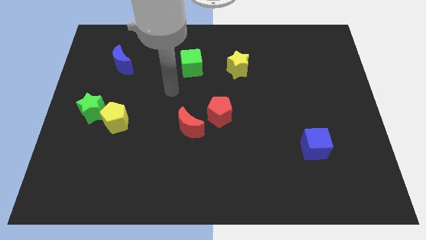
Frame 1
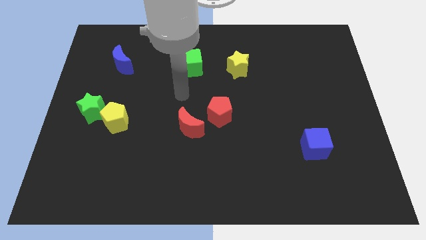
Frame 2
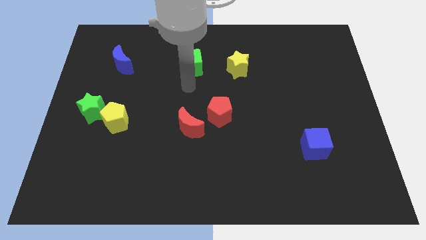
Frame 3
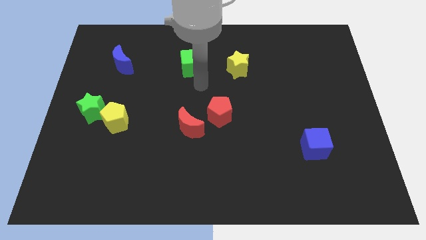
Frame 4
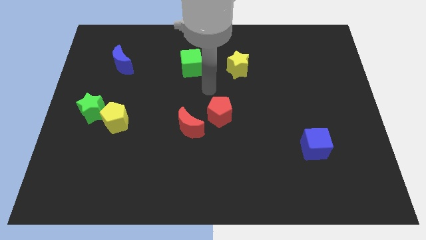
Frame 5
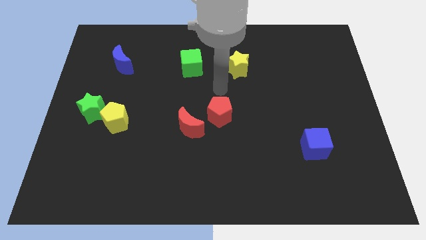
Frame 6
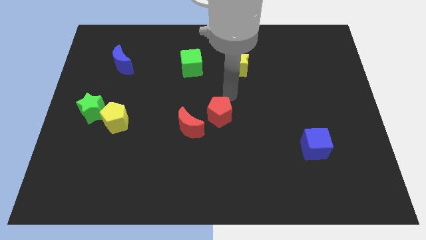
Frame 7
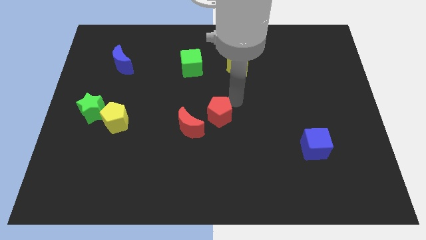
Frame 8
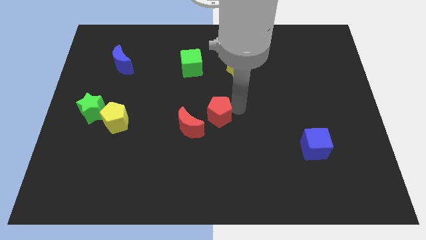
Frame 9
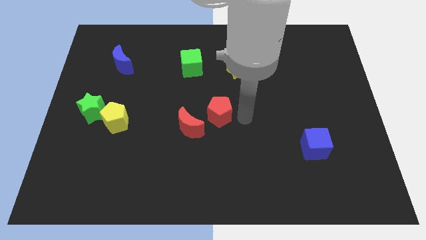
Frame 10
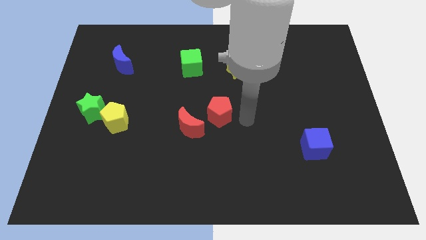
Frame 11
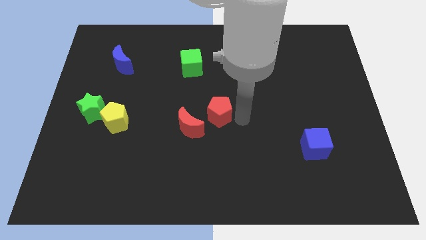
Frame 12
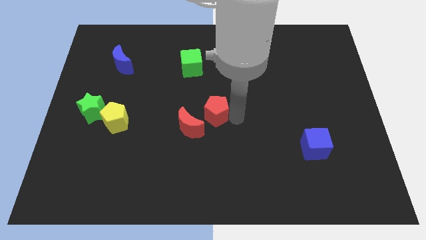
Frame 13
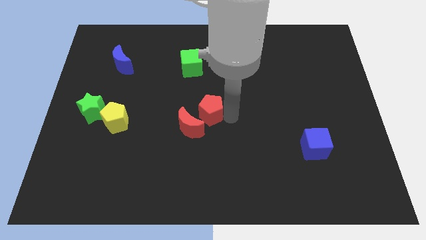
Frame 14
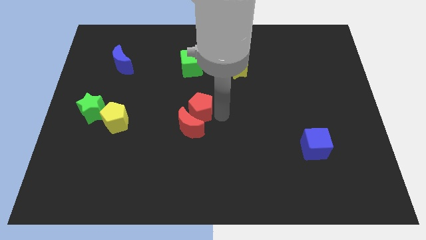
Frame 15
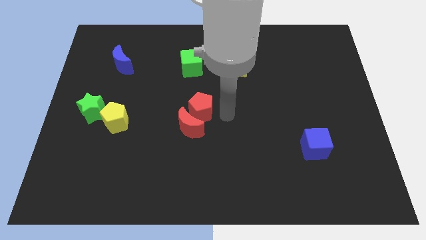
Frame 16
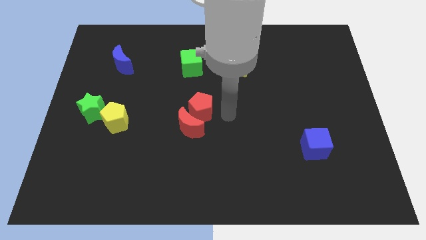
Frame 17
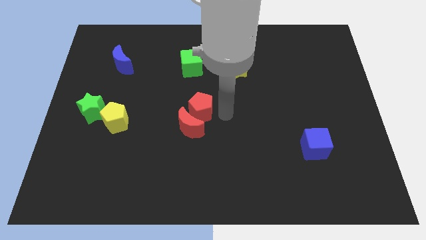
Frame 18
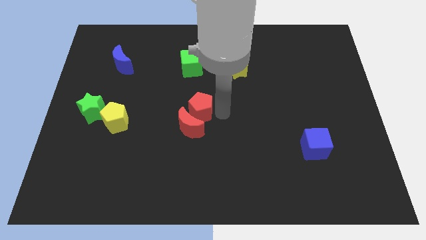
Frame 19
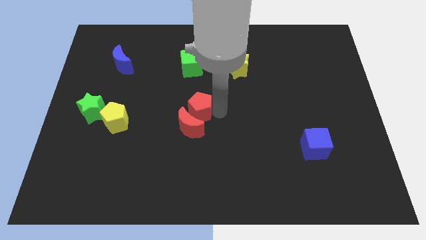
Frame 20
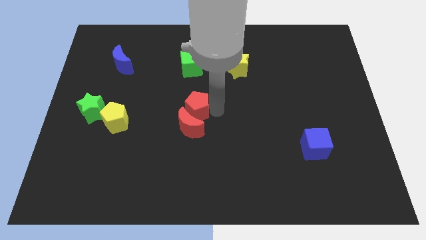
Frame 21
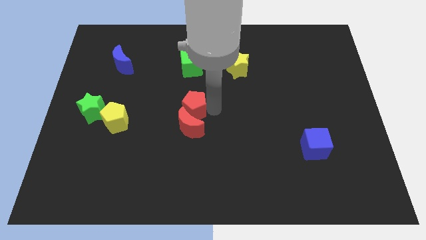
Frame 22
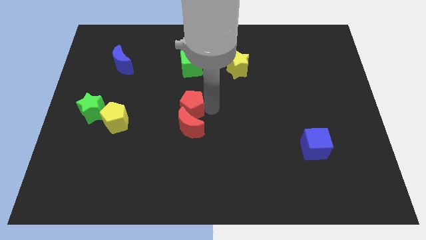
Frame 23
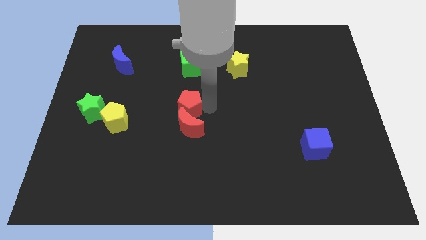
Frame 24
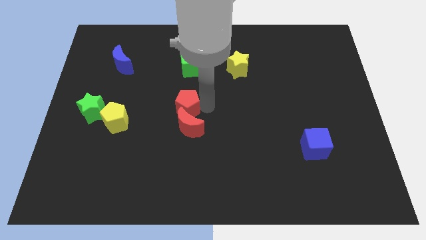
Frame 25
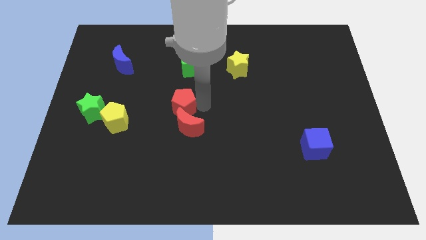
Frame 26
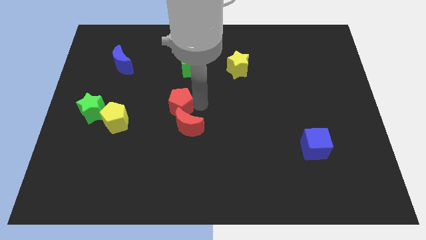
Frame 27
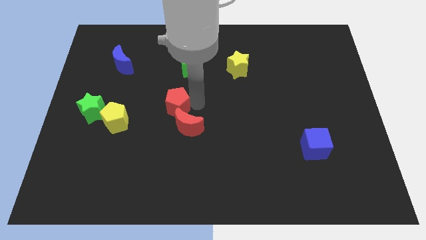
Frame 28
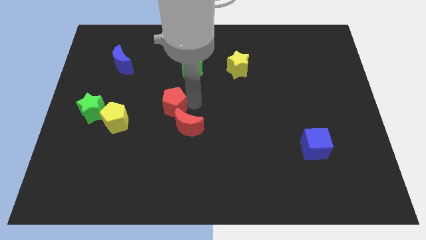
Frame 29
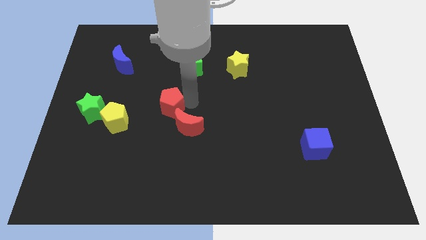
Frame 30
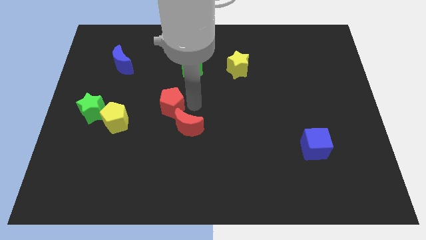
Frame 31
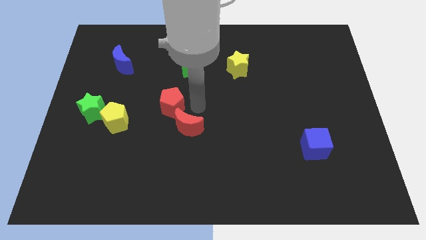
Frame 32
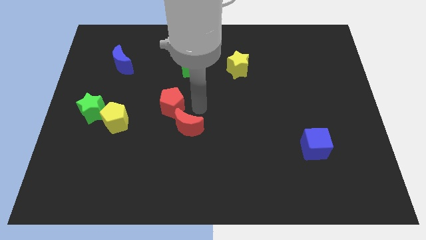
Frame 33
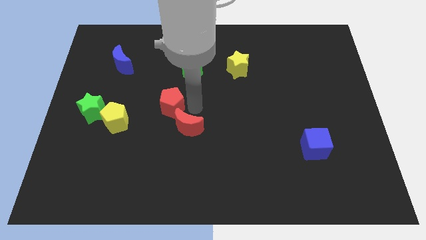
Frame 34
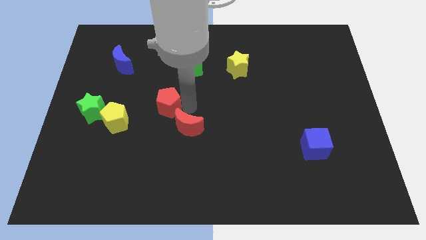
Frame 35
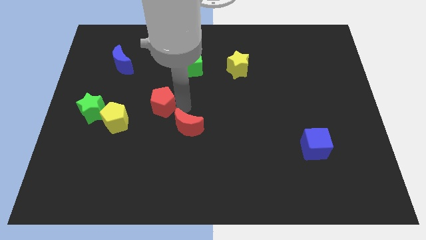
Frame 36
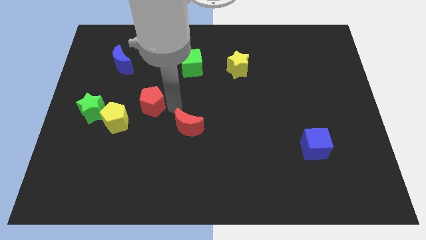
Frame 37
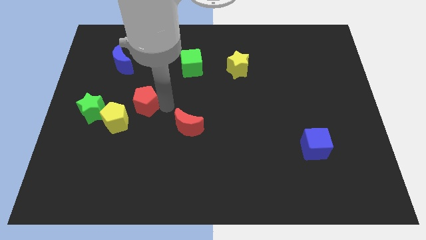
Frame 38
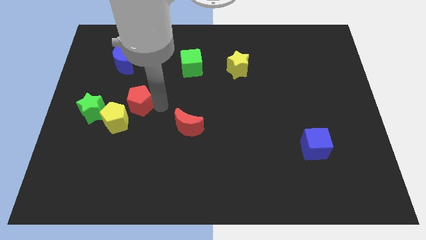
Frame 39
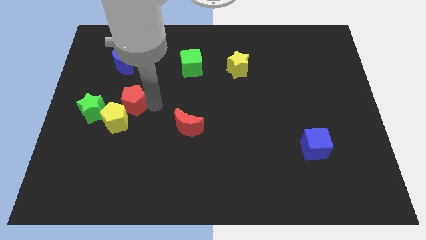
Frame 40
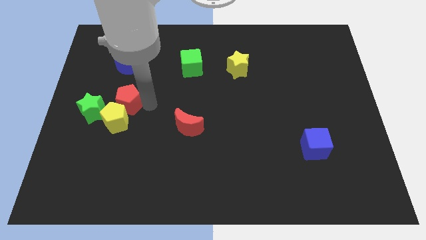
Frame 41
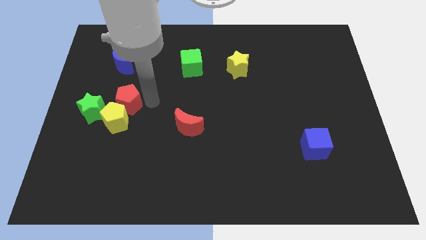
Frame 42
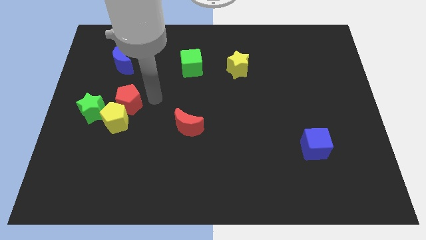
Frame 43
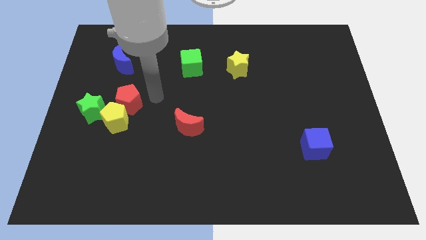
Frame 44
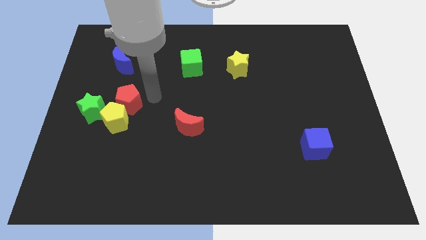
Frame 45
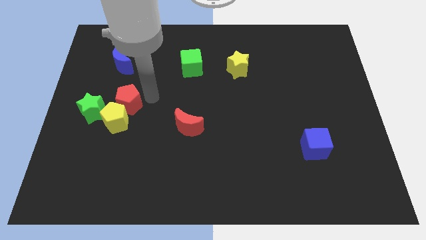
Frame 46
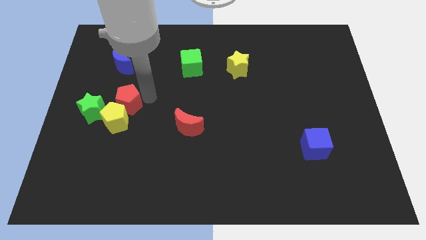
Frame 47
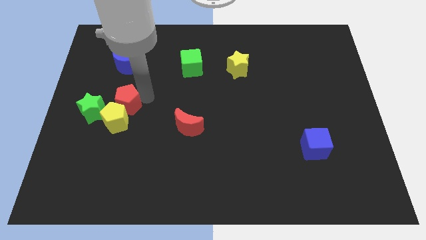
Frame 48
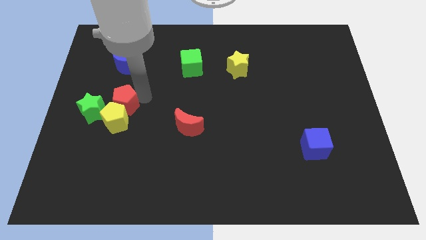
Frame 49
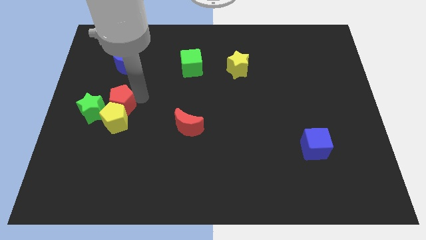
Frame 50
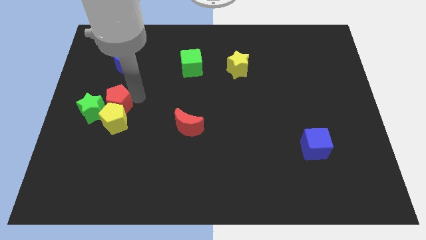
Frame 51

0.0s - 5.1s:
slide the red pentagon to the green star
